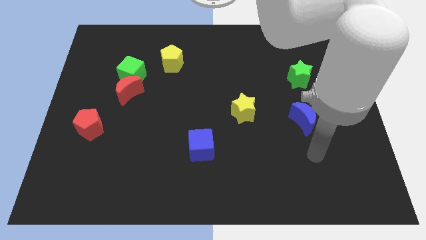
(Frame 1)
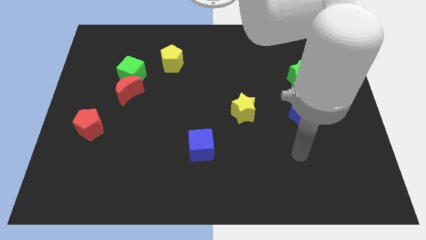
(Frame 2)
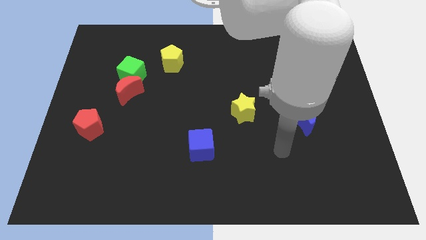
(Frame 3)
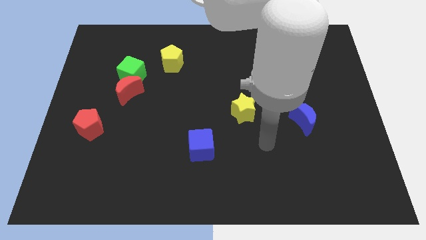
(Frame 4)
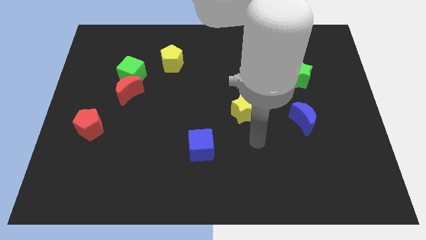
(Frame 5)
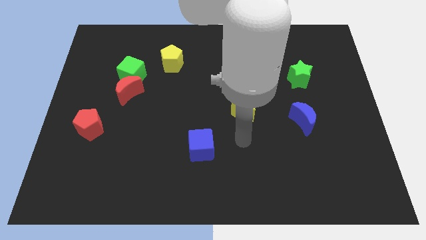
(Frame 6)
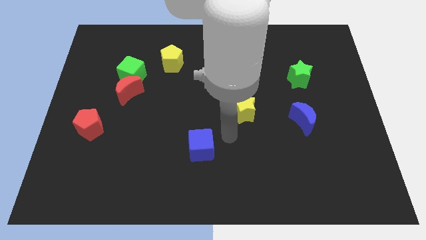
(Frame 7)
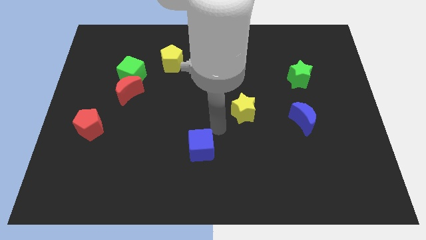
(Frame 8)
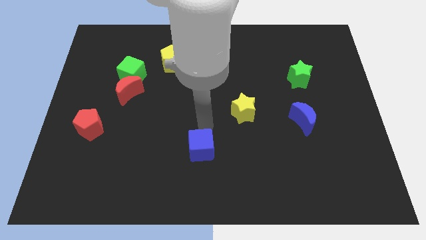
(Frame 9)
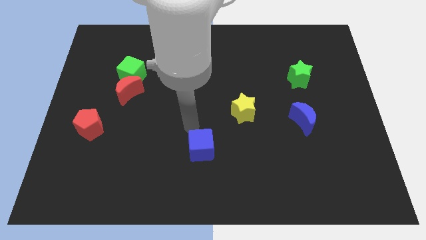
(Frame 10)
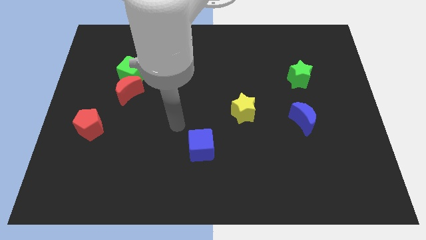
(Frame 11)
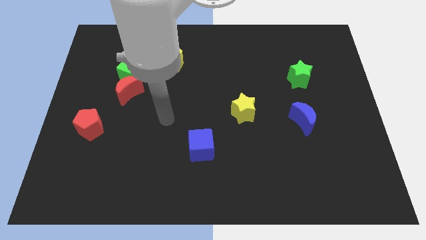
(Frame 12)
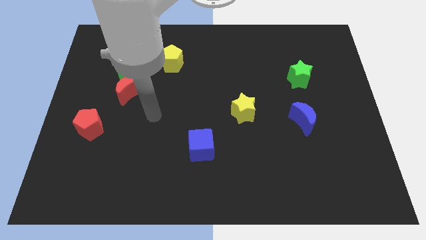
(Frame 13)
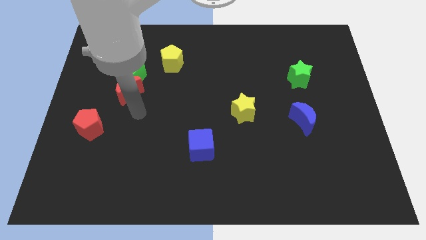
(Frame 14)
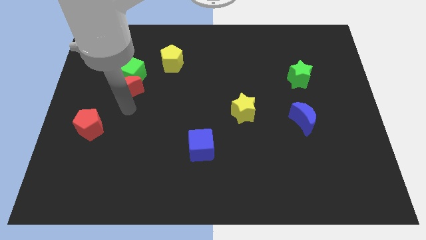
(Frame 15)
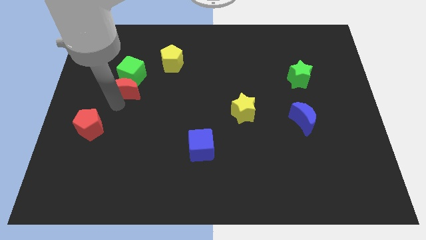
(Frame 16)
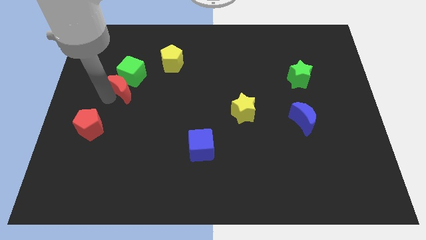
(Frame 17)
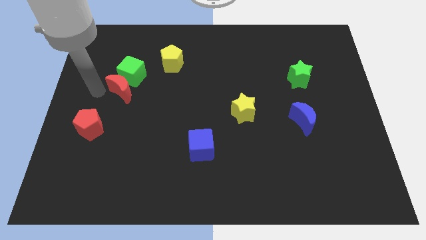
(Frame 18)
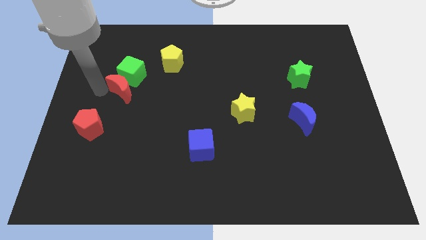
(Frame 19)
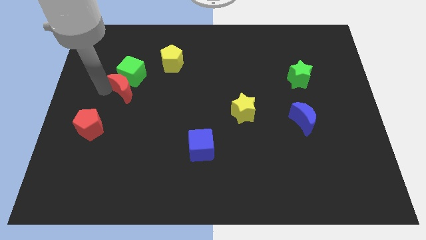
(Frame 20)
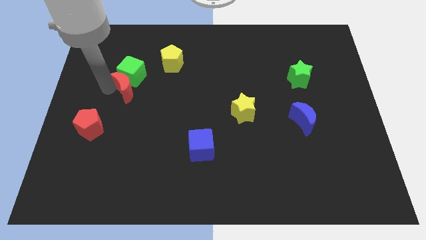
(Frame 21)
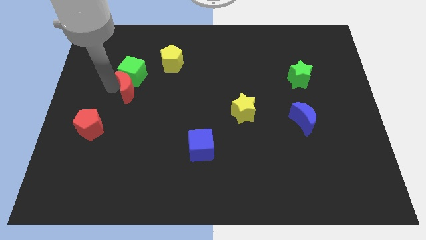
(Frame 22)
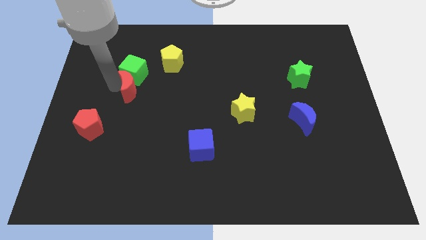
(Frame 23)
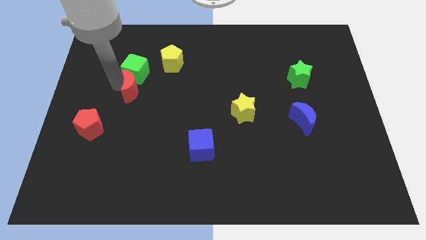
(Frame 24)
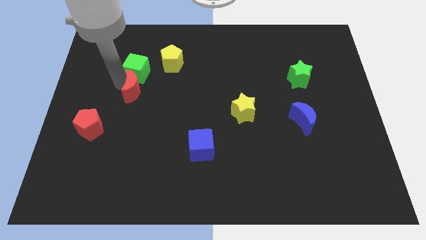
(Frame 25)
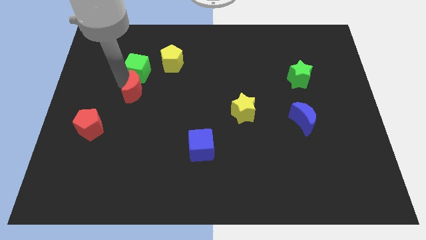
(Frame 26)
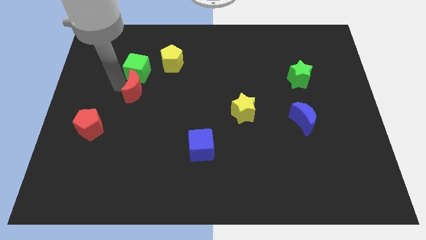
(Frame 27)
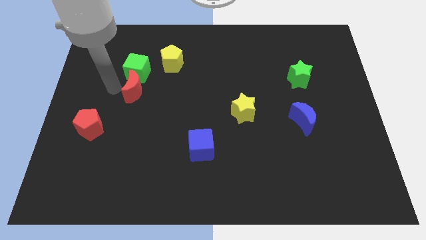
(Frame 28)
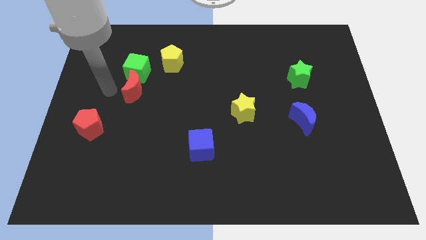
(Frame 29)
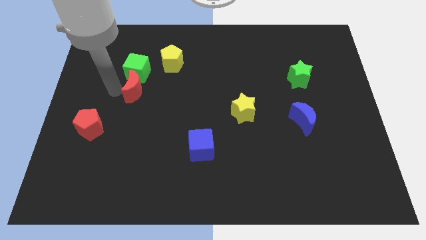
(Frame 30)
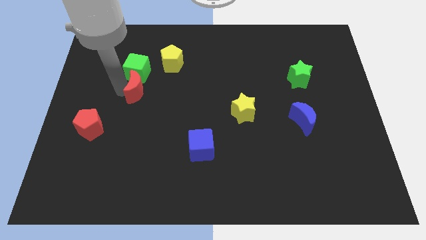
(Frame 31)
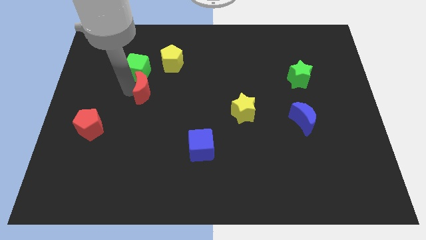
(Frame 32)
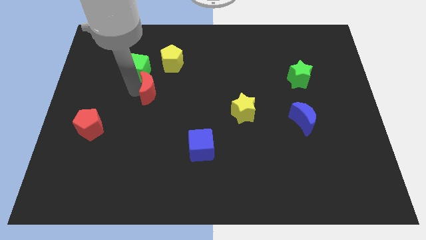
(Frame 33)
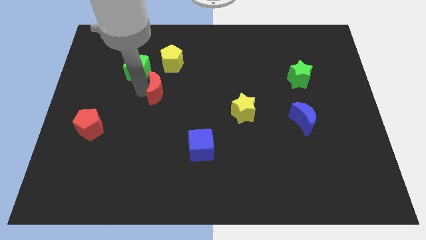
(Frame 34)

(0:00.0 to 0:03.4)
move the red moon a bit to the right

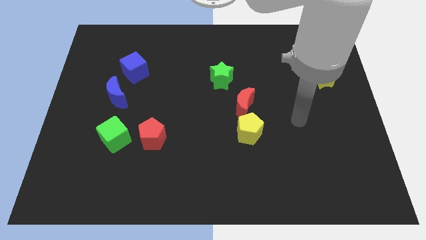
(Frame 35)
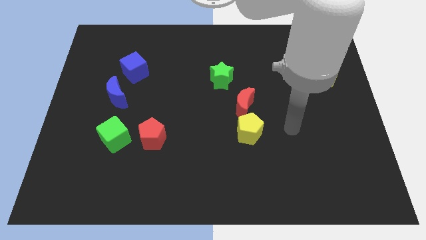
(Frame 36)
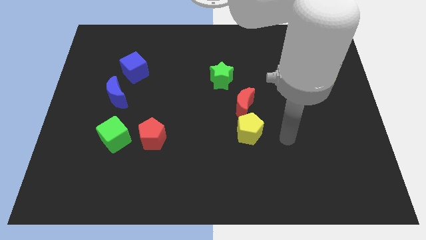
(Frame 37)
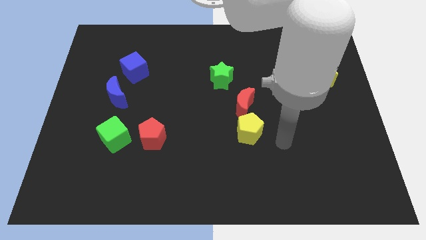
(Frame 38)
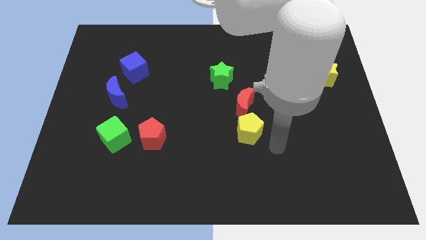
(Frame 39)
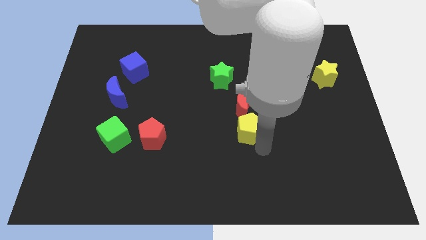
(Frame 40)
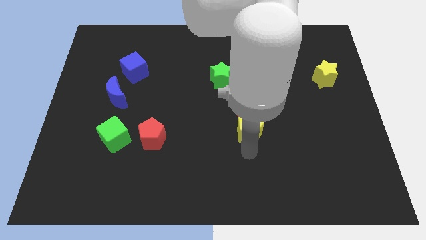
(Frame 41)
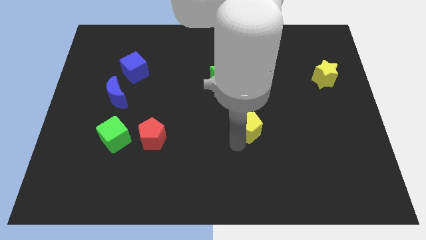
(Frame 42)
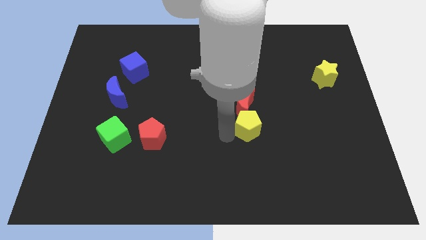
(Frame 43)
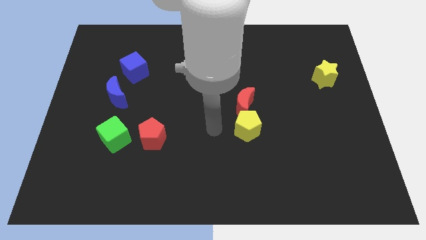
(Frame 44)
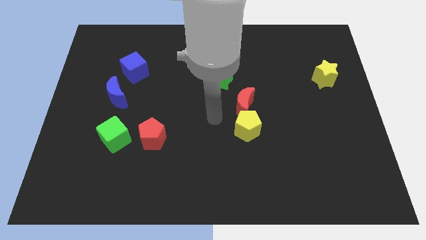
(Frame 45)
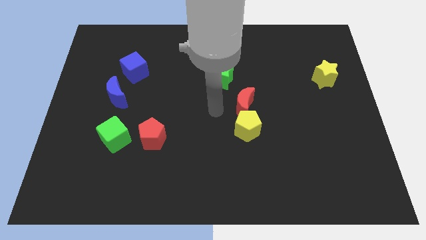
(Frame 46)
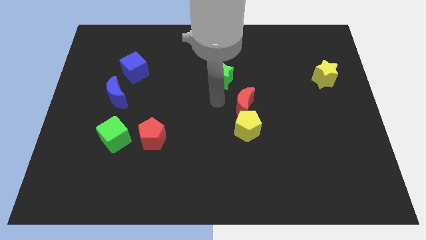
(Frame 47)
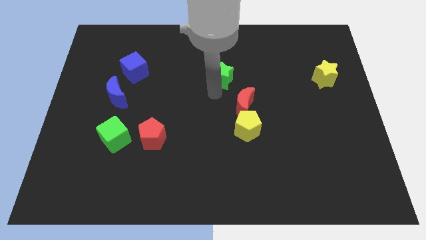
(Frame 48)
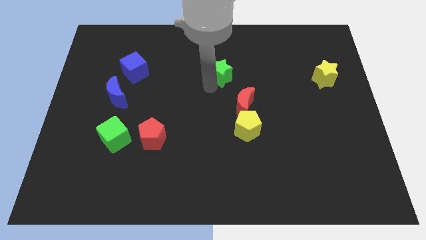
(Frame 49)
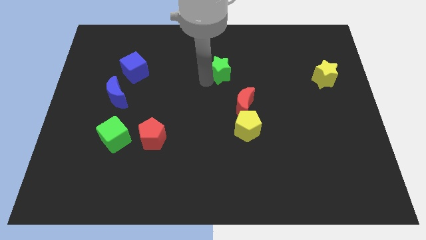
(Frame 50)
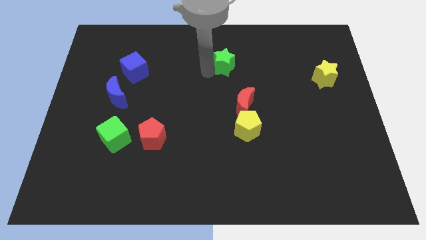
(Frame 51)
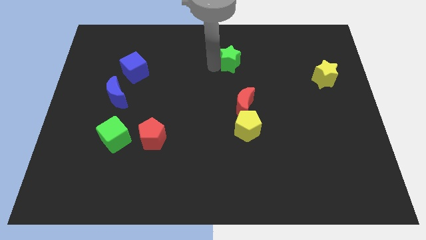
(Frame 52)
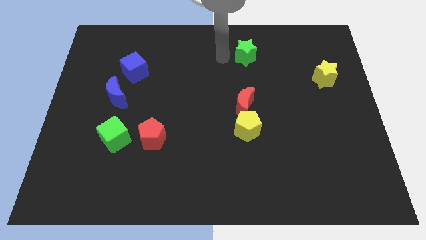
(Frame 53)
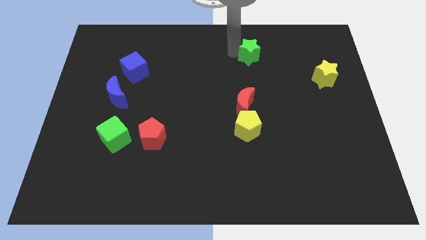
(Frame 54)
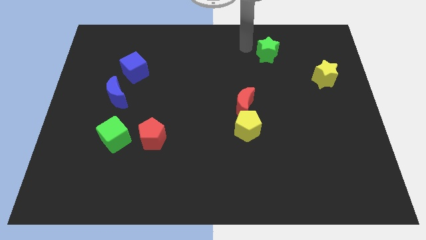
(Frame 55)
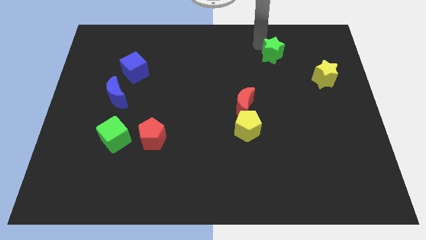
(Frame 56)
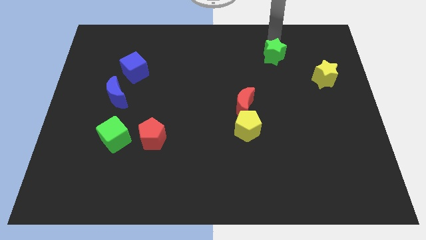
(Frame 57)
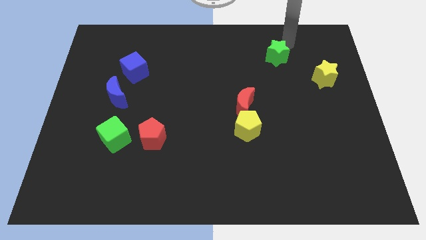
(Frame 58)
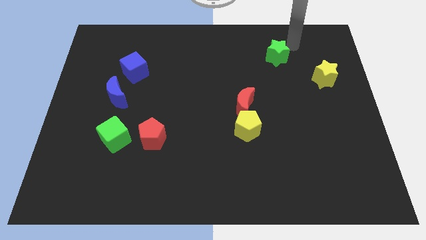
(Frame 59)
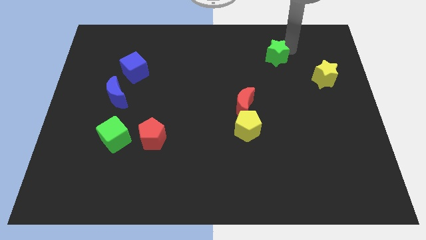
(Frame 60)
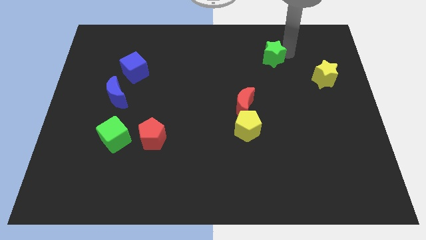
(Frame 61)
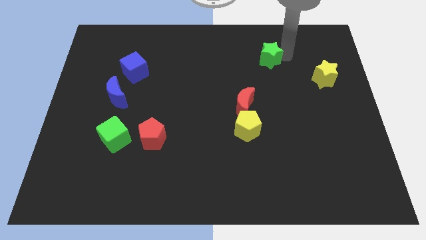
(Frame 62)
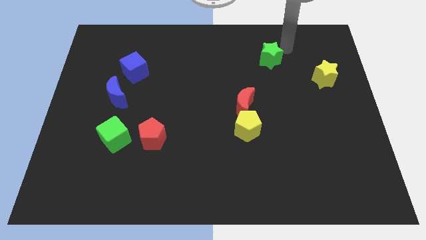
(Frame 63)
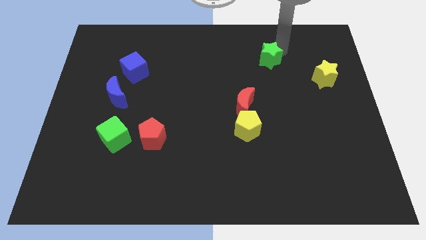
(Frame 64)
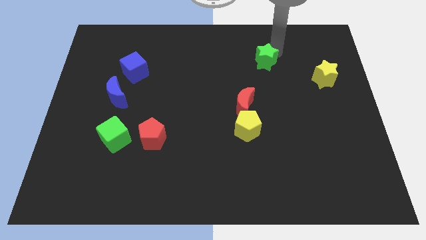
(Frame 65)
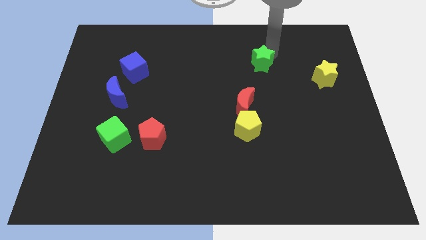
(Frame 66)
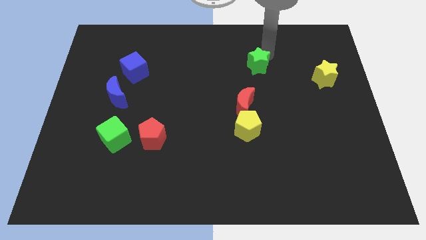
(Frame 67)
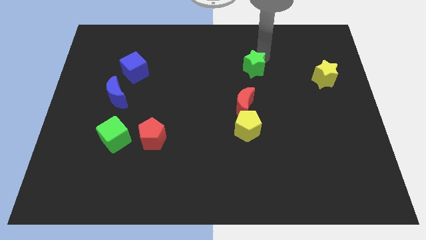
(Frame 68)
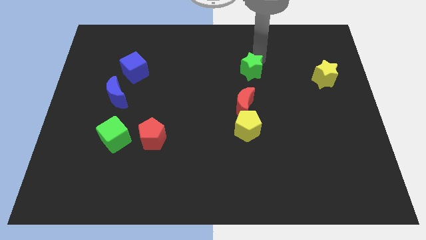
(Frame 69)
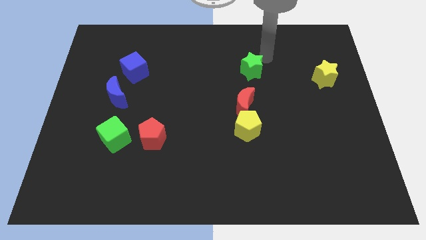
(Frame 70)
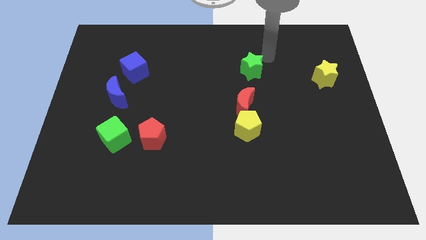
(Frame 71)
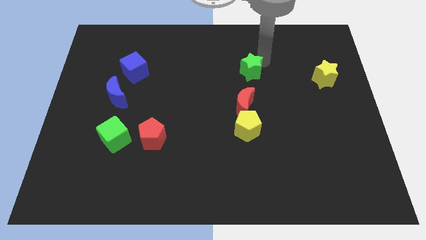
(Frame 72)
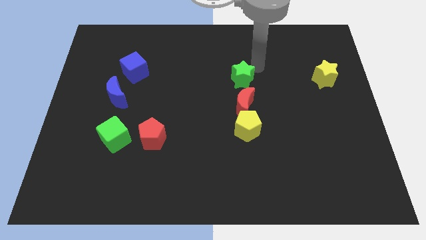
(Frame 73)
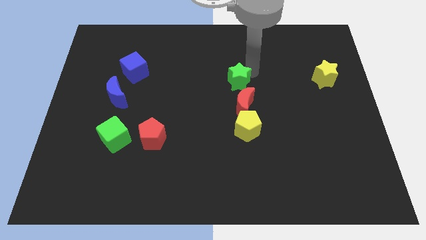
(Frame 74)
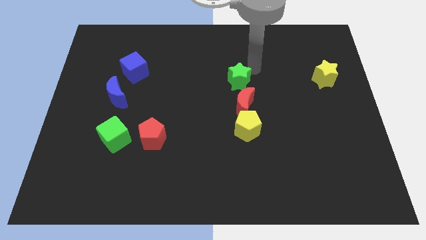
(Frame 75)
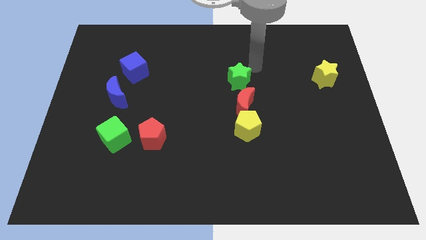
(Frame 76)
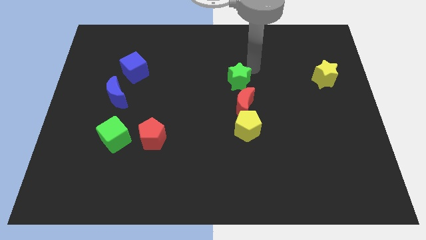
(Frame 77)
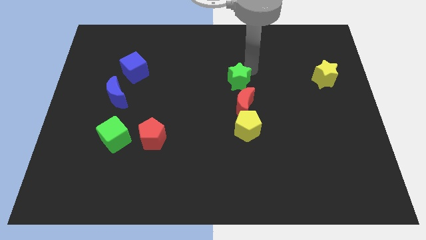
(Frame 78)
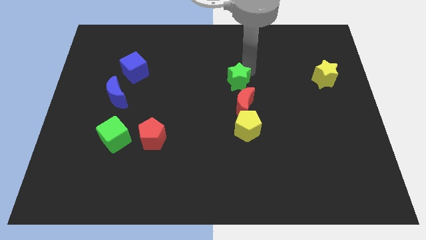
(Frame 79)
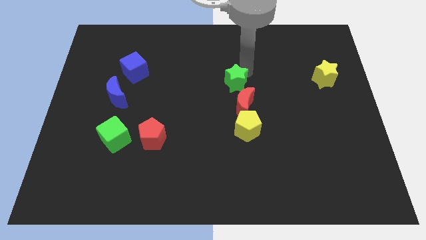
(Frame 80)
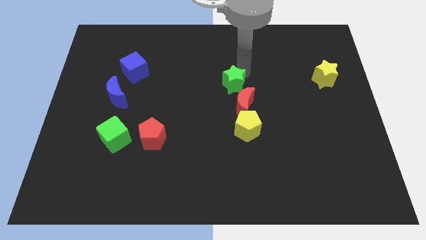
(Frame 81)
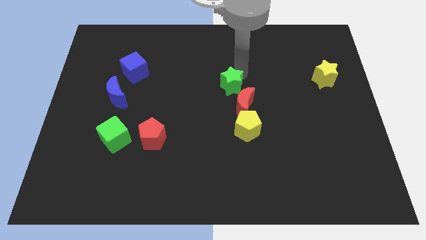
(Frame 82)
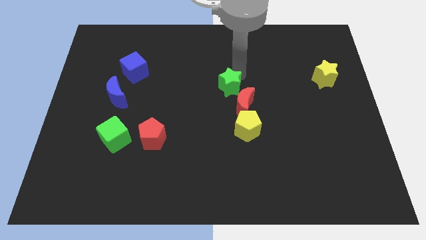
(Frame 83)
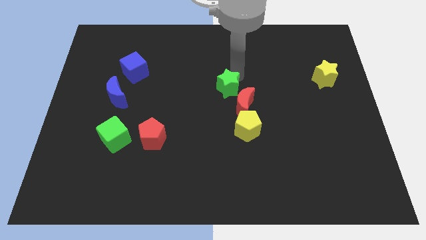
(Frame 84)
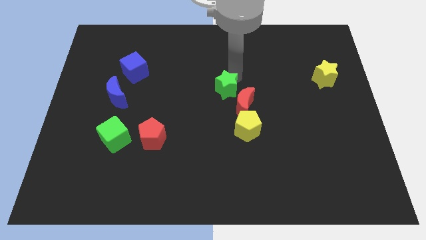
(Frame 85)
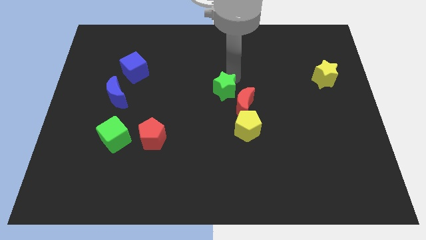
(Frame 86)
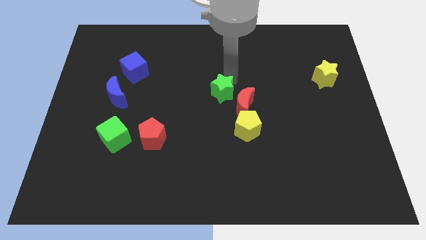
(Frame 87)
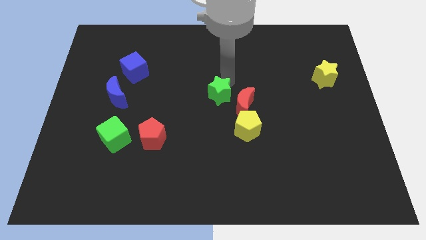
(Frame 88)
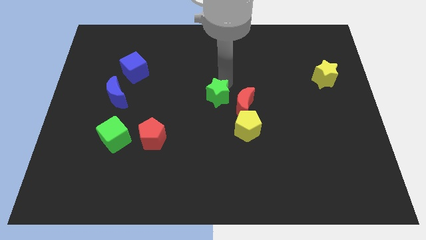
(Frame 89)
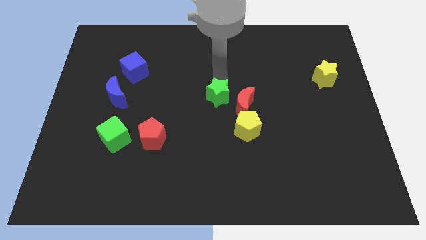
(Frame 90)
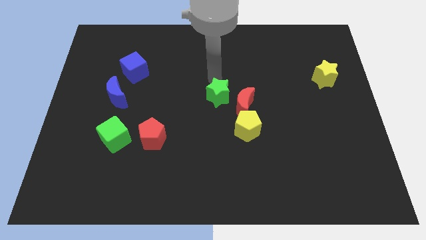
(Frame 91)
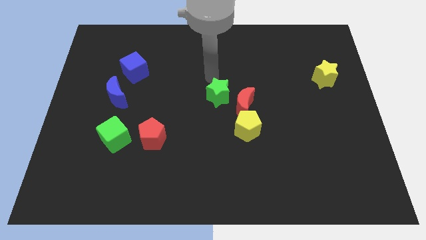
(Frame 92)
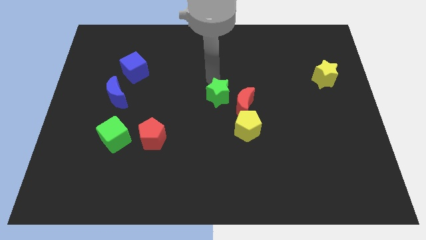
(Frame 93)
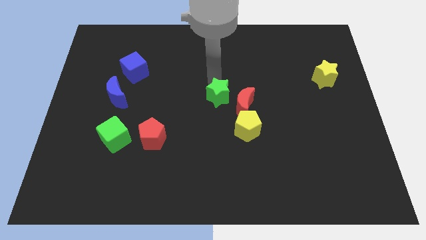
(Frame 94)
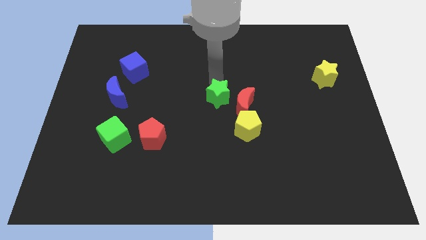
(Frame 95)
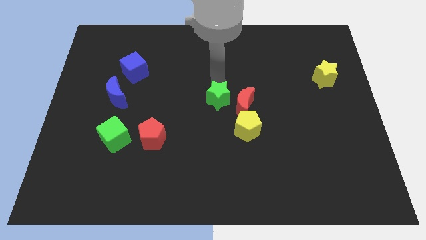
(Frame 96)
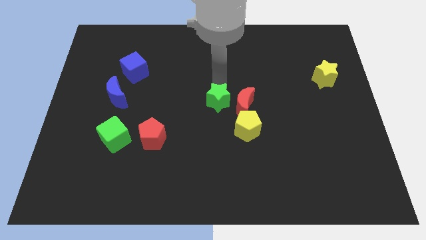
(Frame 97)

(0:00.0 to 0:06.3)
move the green star a little down
